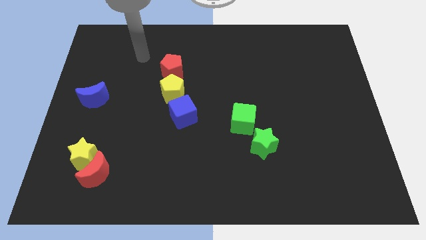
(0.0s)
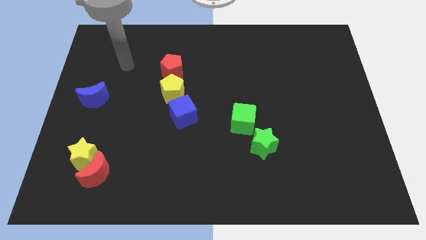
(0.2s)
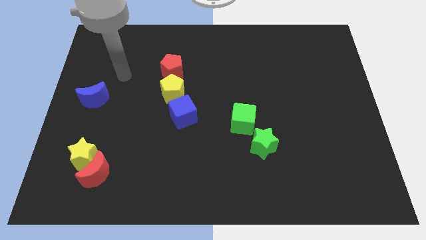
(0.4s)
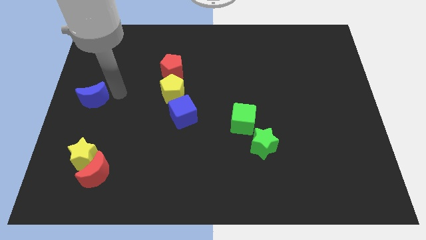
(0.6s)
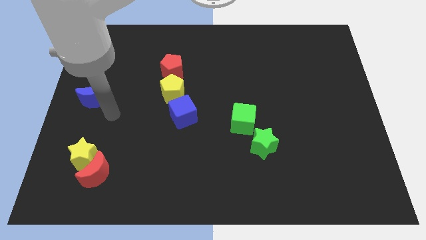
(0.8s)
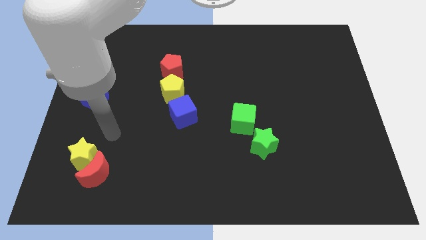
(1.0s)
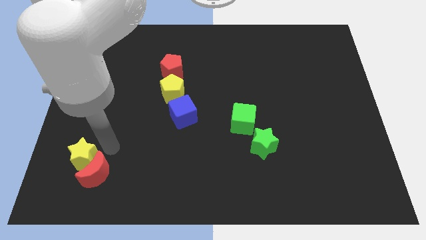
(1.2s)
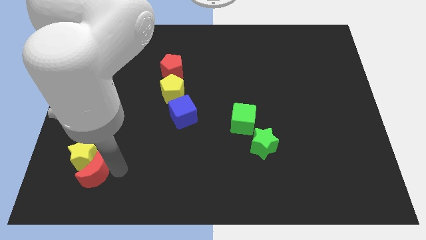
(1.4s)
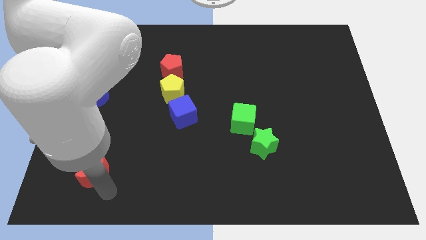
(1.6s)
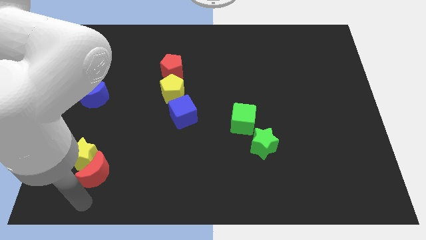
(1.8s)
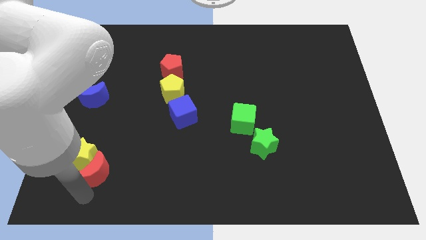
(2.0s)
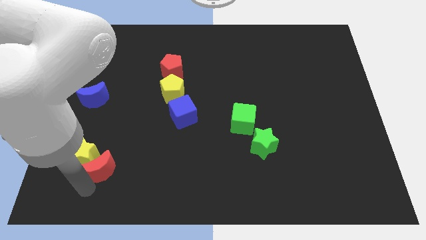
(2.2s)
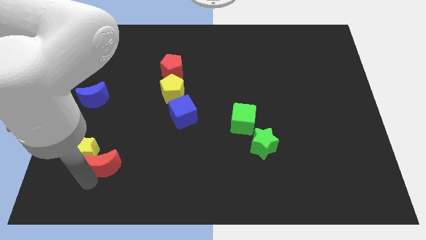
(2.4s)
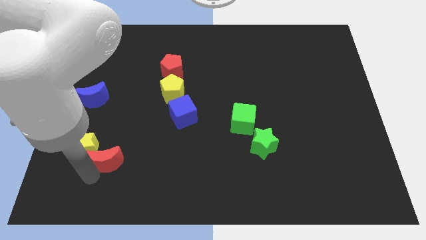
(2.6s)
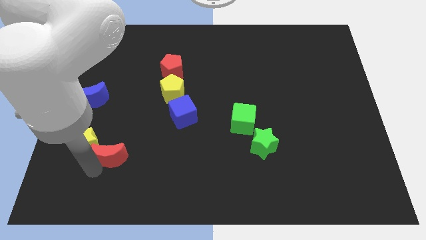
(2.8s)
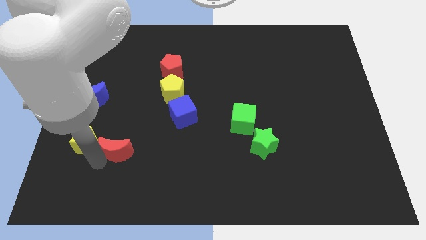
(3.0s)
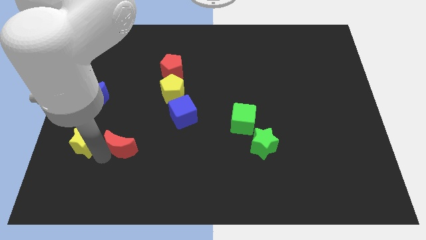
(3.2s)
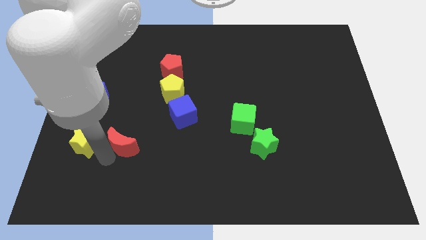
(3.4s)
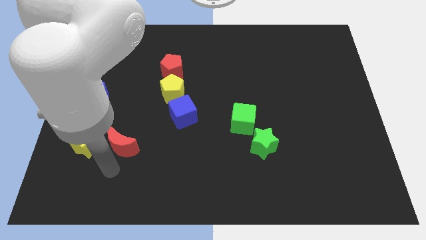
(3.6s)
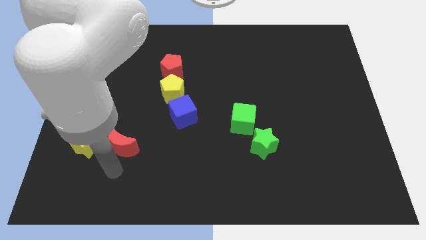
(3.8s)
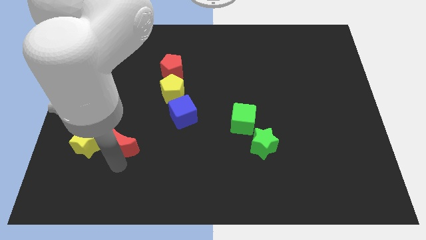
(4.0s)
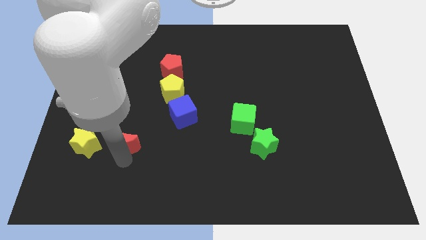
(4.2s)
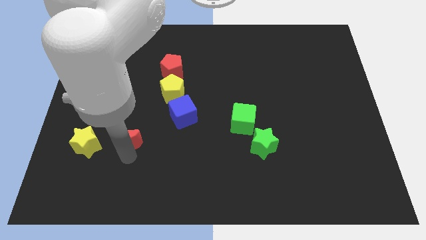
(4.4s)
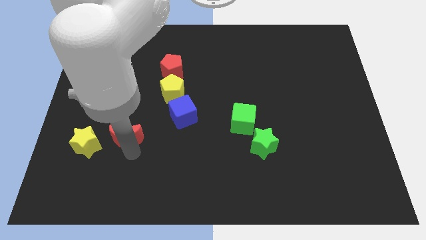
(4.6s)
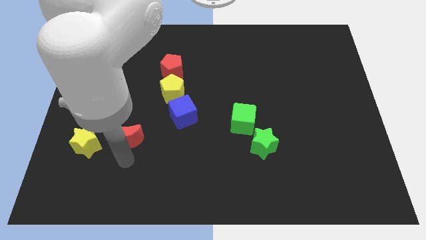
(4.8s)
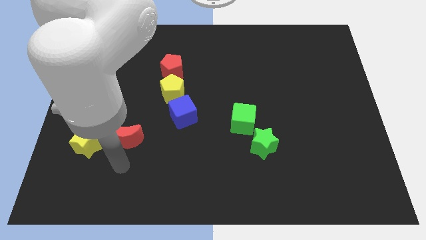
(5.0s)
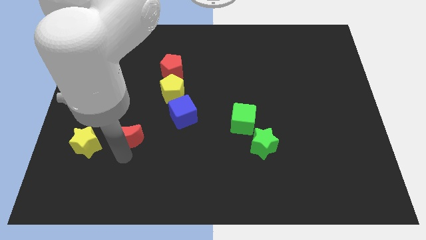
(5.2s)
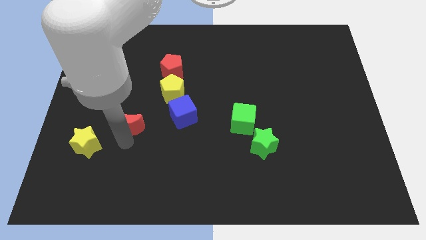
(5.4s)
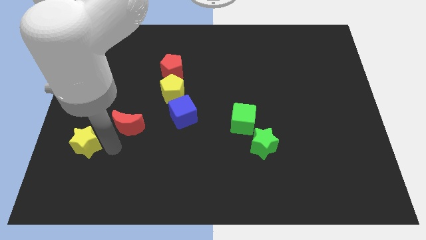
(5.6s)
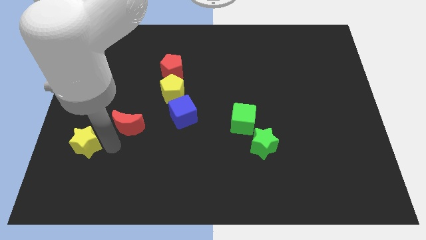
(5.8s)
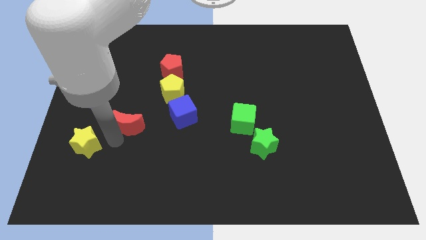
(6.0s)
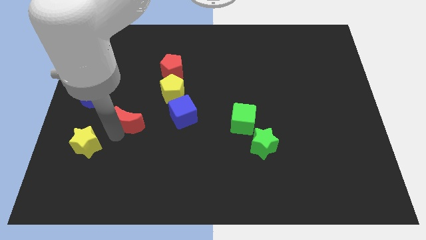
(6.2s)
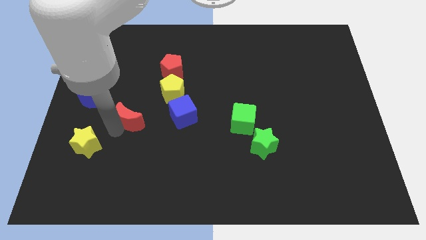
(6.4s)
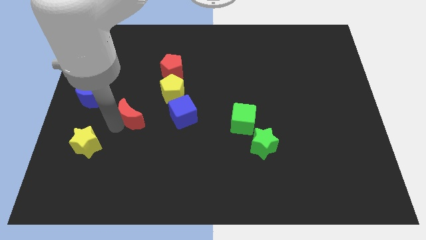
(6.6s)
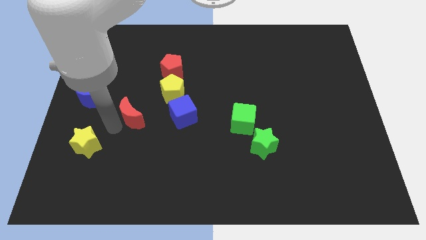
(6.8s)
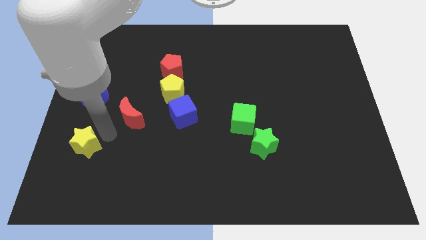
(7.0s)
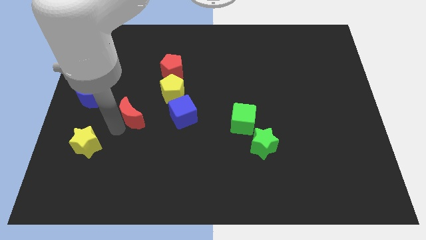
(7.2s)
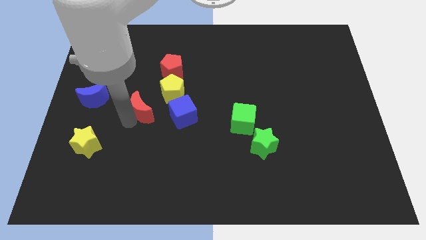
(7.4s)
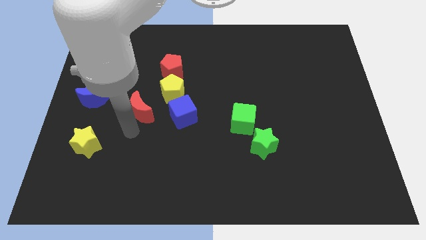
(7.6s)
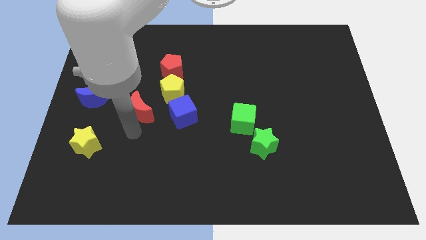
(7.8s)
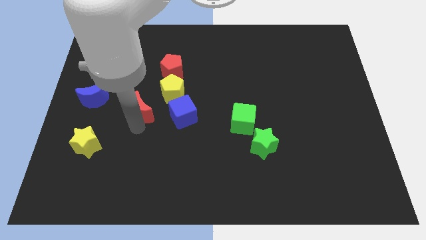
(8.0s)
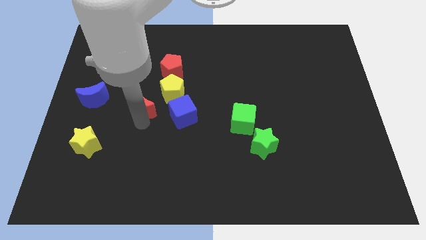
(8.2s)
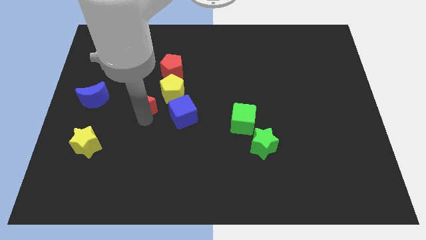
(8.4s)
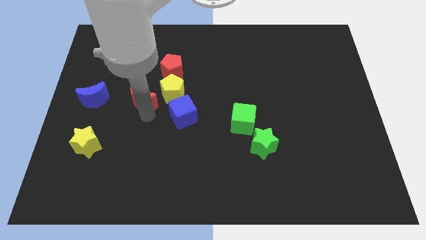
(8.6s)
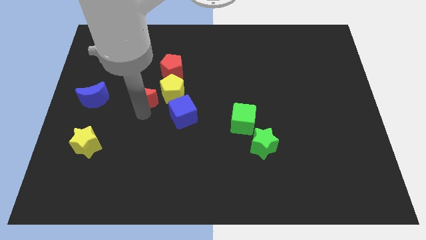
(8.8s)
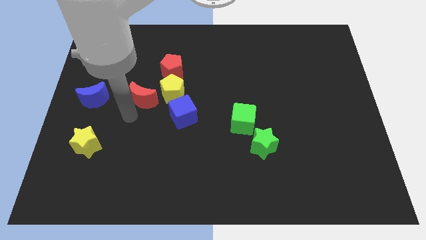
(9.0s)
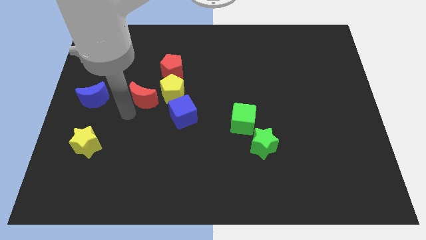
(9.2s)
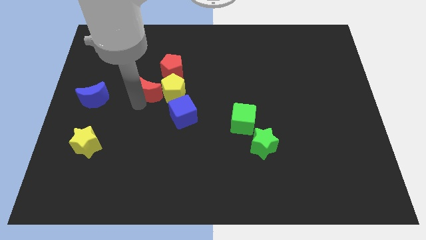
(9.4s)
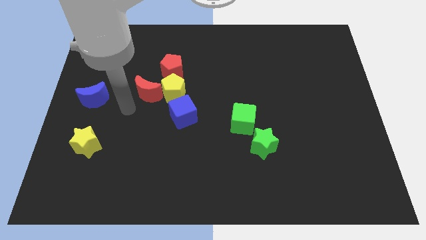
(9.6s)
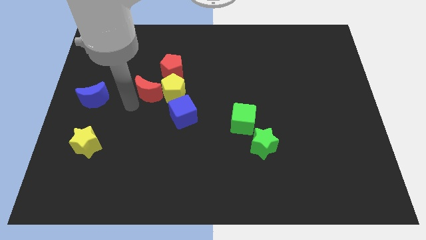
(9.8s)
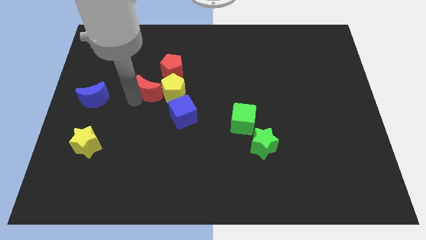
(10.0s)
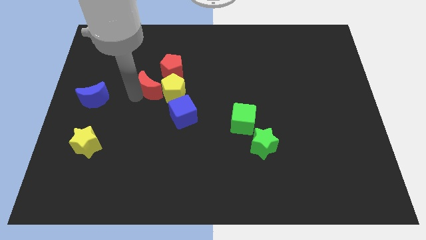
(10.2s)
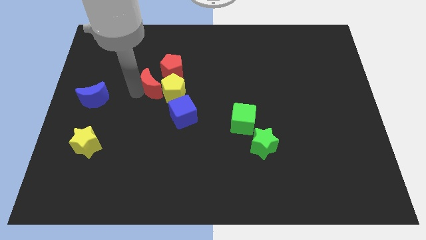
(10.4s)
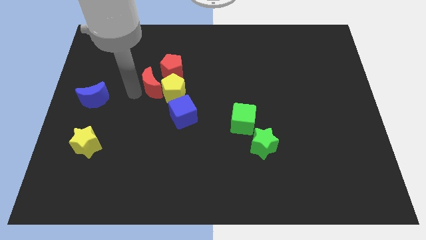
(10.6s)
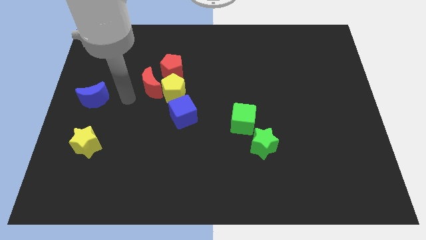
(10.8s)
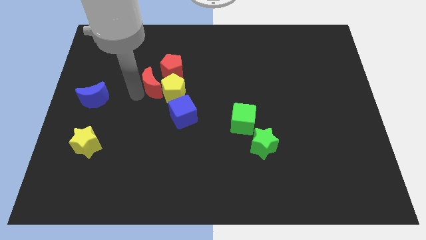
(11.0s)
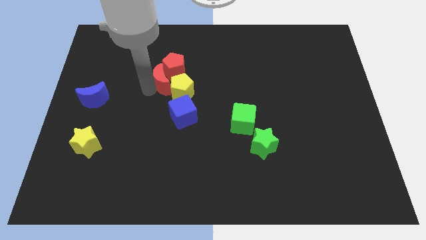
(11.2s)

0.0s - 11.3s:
push the red moon towards the red pentagon

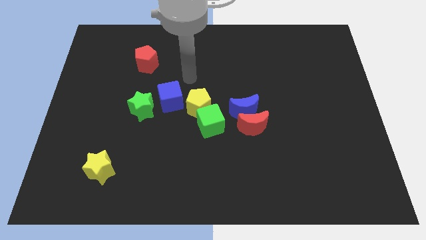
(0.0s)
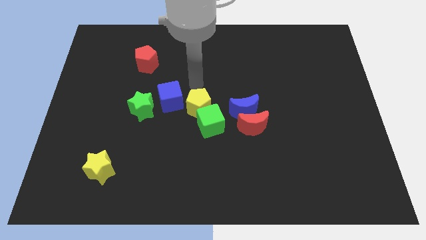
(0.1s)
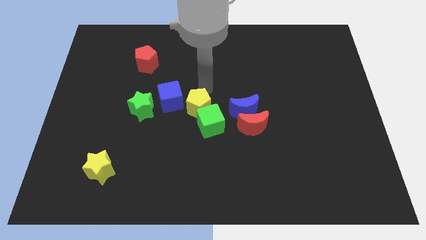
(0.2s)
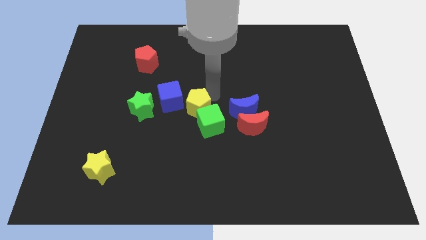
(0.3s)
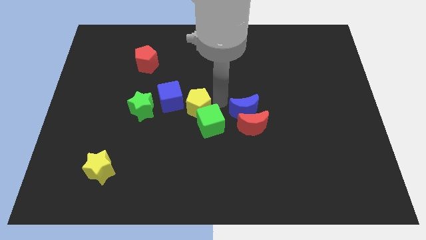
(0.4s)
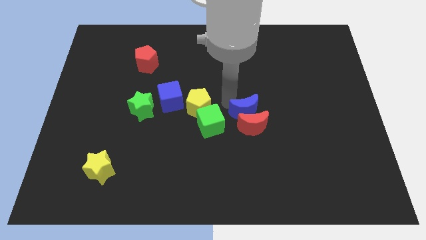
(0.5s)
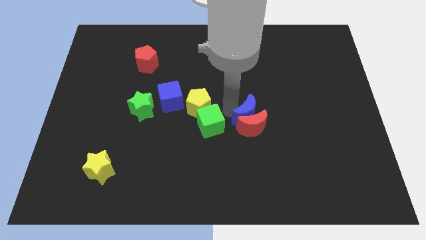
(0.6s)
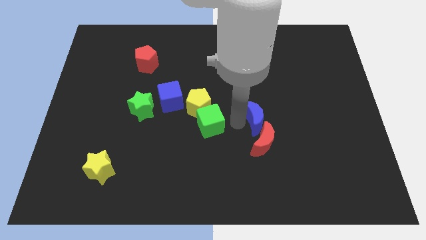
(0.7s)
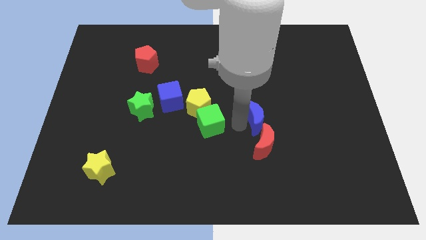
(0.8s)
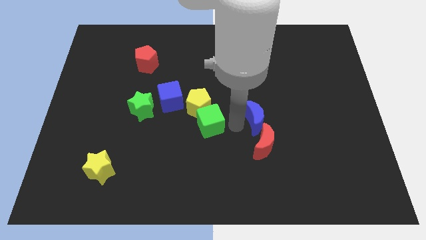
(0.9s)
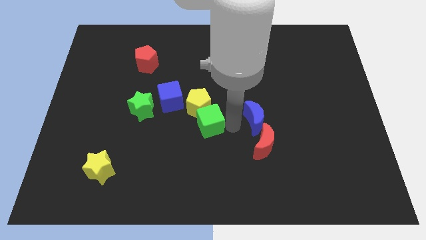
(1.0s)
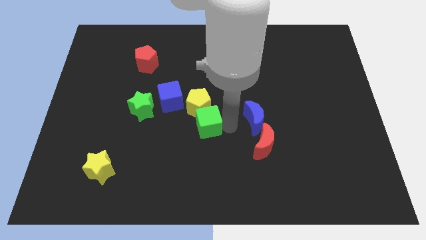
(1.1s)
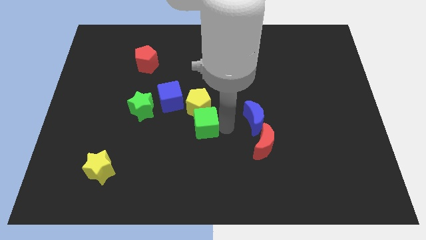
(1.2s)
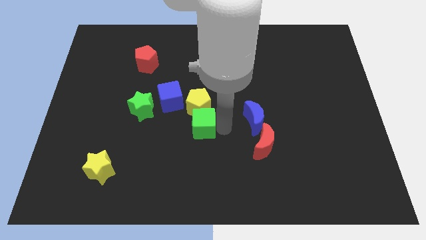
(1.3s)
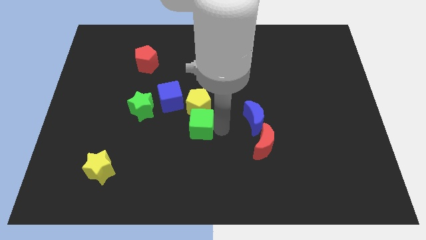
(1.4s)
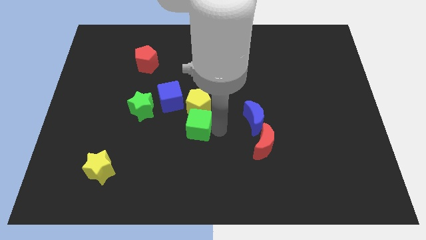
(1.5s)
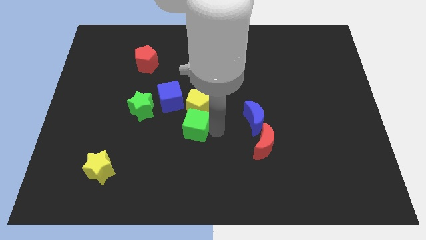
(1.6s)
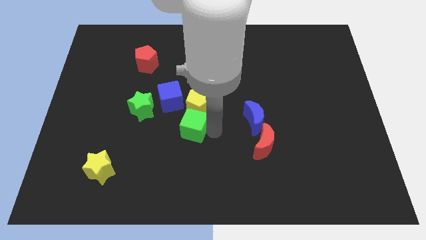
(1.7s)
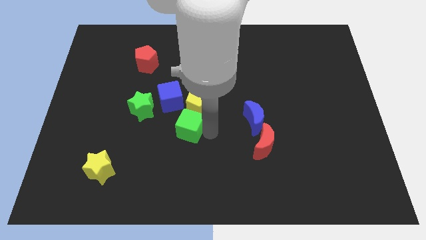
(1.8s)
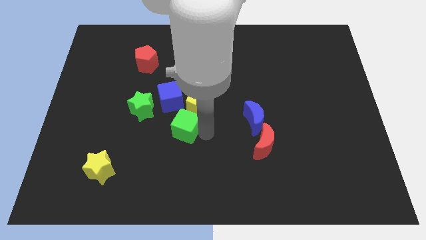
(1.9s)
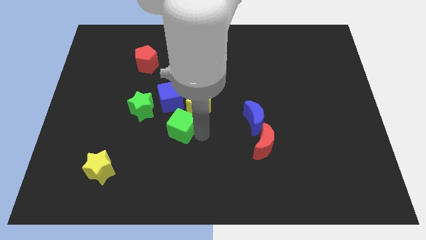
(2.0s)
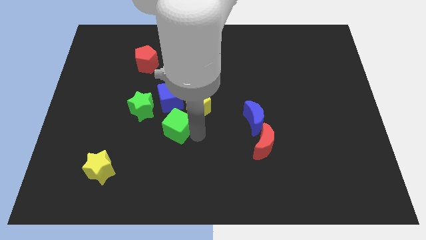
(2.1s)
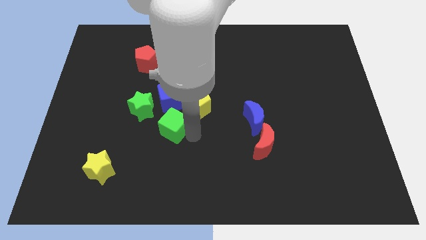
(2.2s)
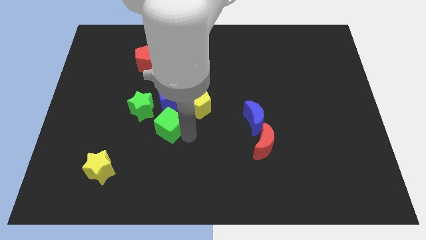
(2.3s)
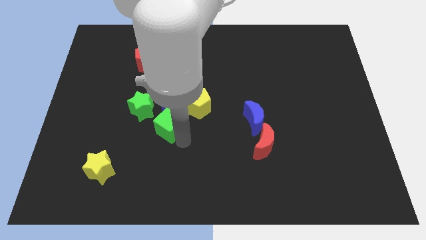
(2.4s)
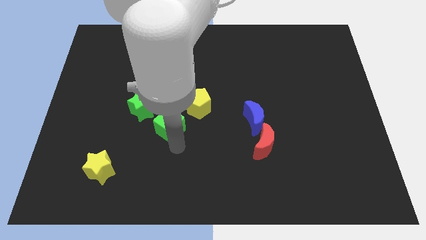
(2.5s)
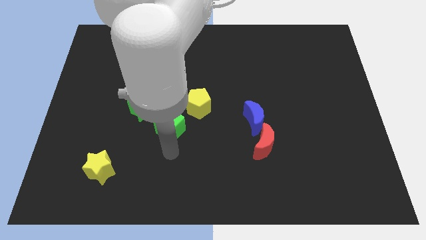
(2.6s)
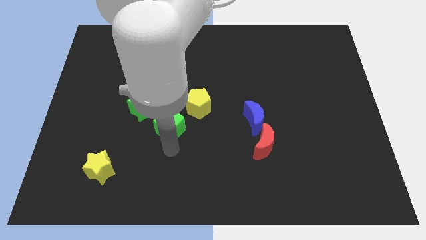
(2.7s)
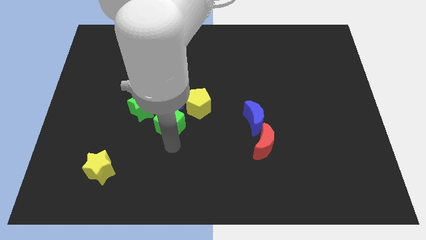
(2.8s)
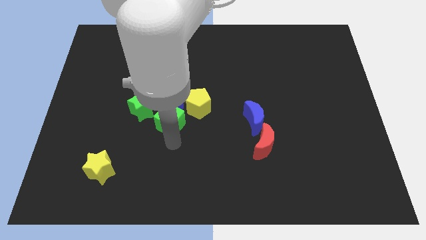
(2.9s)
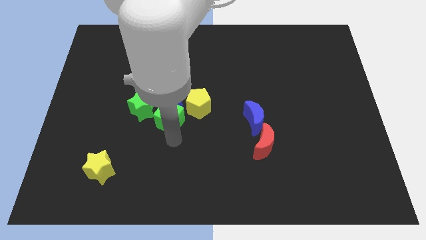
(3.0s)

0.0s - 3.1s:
slide the green cube towards the blue cube
